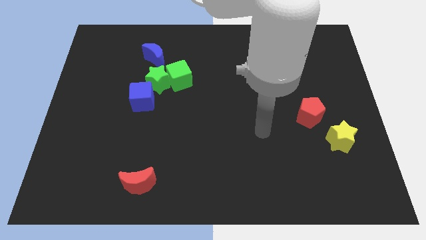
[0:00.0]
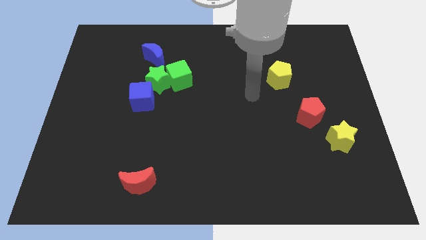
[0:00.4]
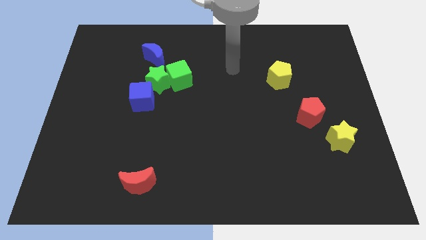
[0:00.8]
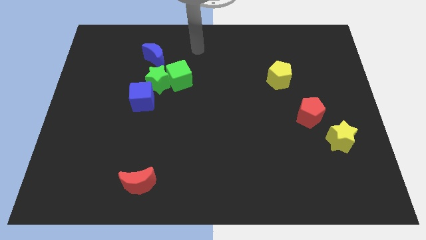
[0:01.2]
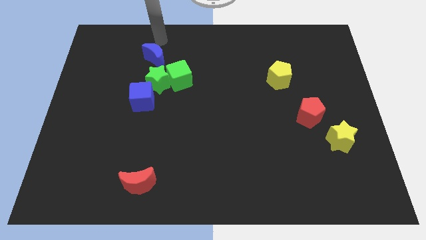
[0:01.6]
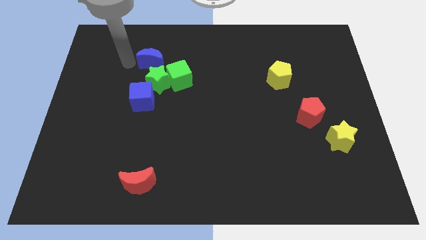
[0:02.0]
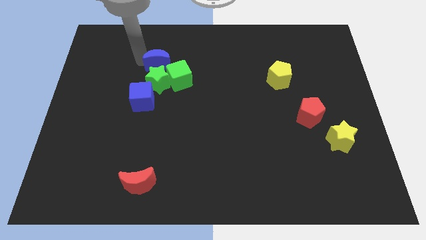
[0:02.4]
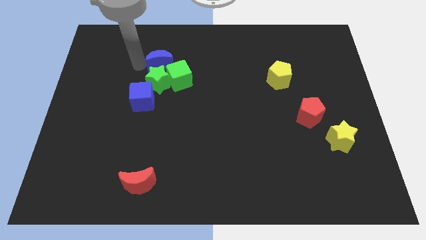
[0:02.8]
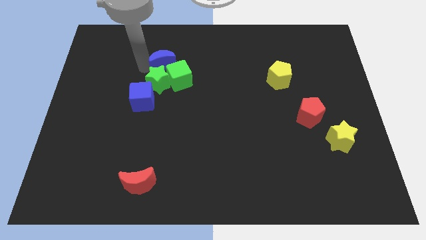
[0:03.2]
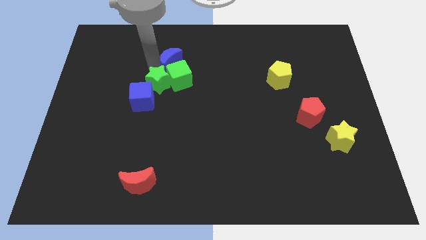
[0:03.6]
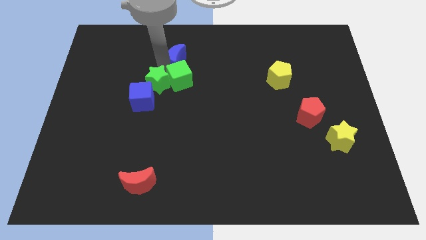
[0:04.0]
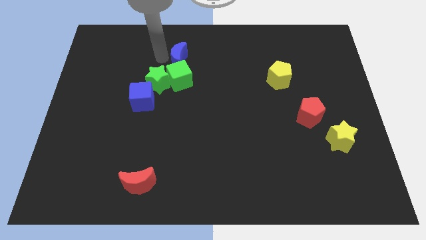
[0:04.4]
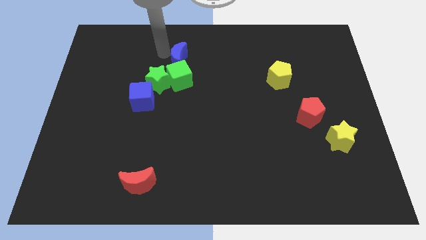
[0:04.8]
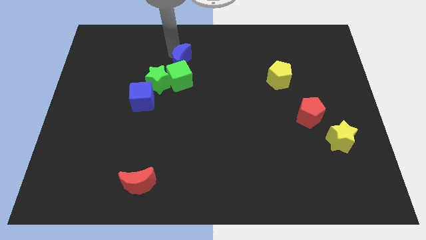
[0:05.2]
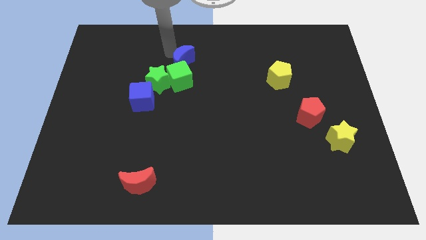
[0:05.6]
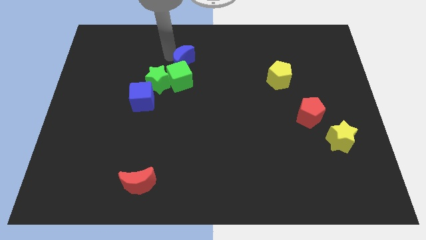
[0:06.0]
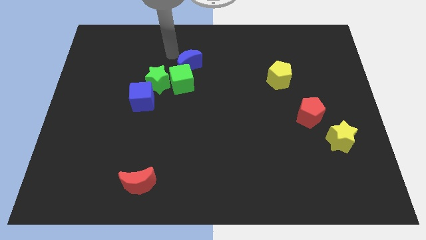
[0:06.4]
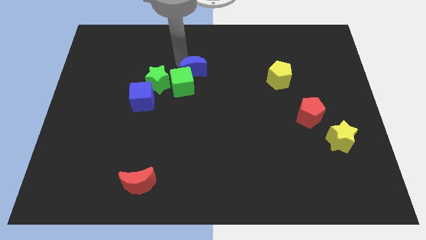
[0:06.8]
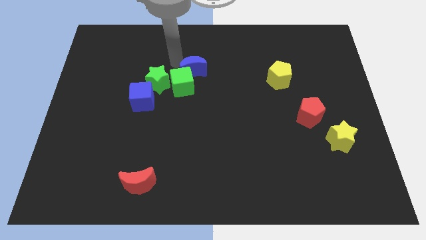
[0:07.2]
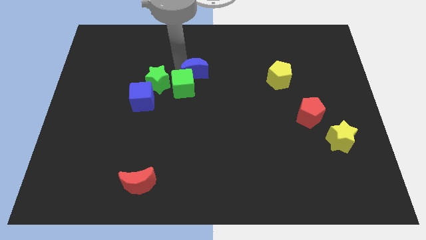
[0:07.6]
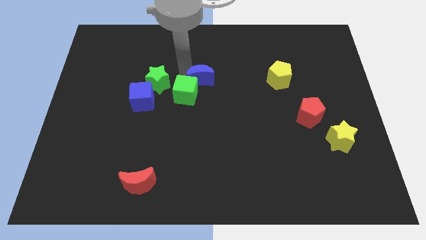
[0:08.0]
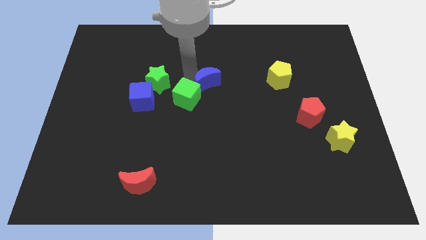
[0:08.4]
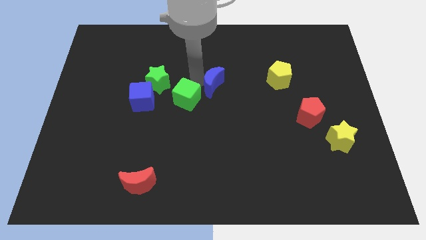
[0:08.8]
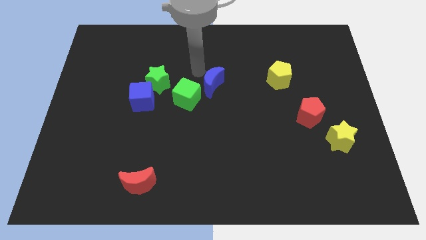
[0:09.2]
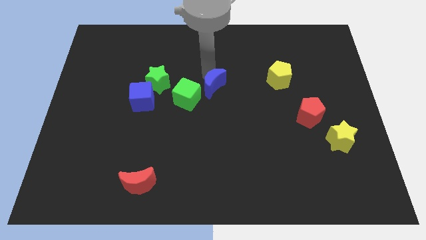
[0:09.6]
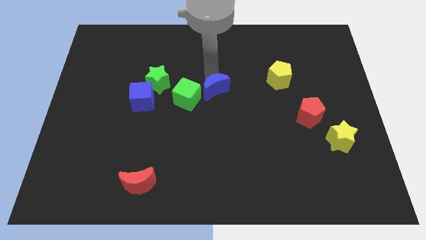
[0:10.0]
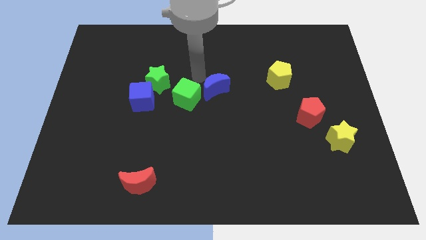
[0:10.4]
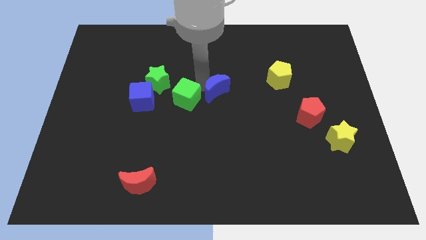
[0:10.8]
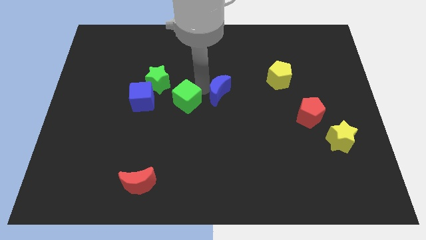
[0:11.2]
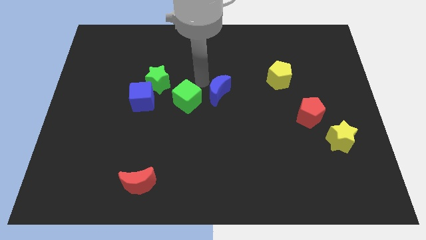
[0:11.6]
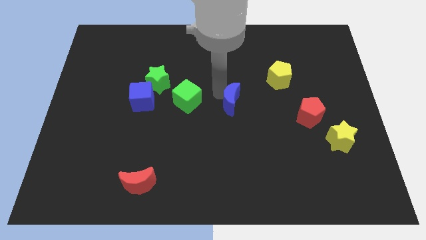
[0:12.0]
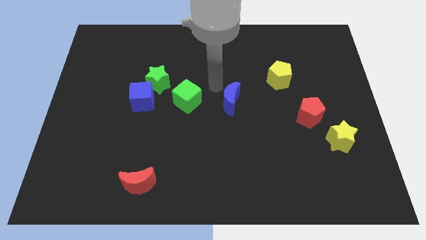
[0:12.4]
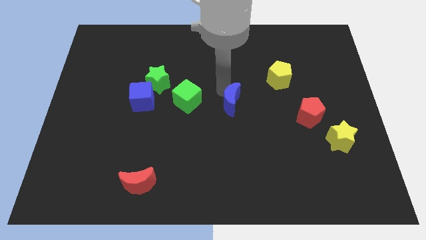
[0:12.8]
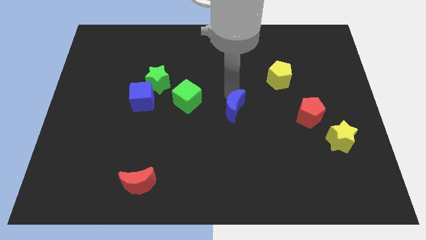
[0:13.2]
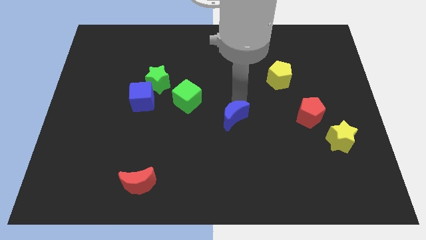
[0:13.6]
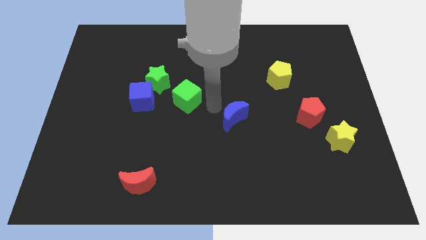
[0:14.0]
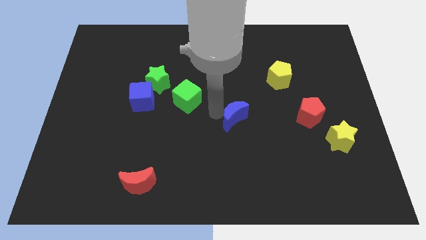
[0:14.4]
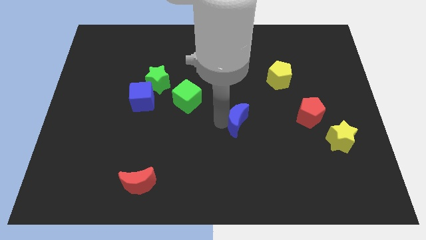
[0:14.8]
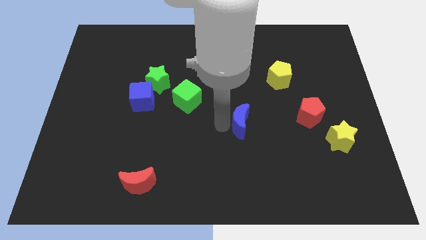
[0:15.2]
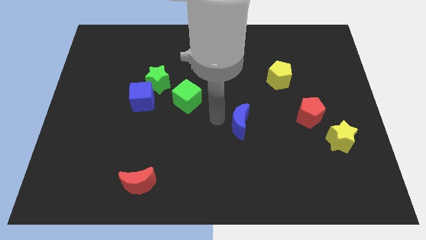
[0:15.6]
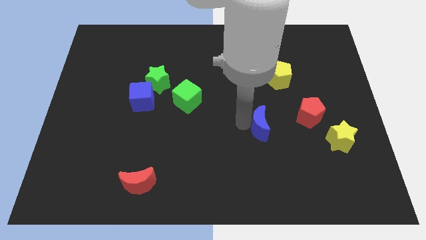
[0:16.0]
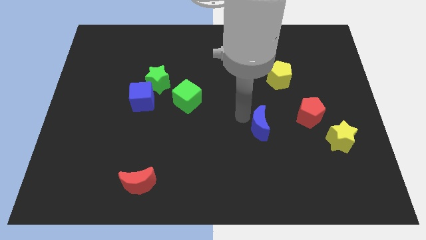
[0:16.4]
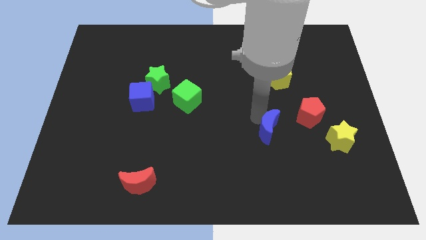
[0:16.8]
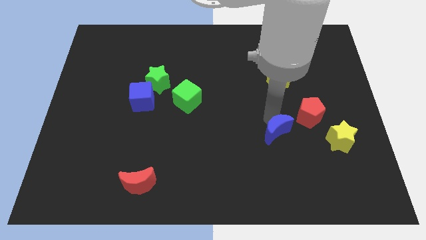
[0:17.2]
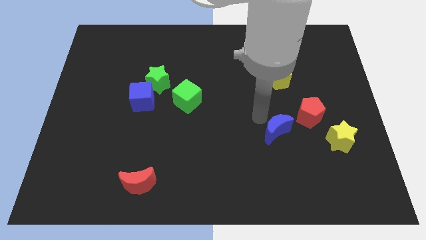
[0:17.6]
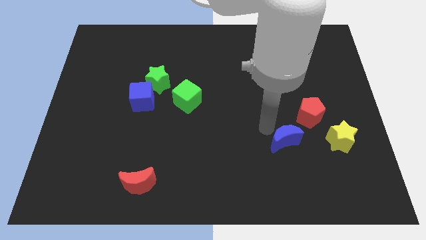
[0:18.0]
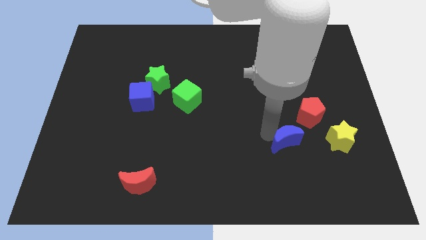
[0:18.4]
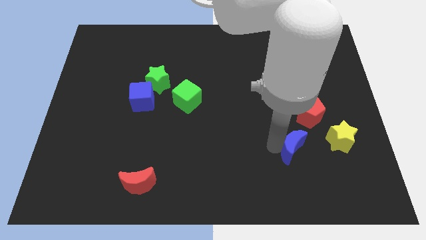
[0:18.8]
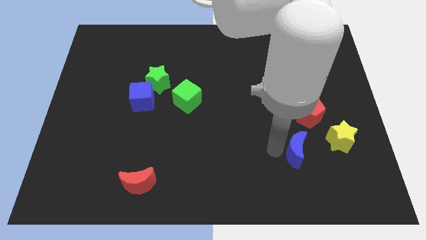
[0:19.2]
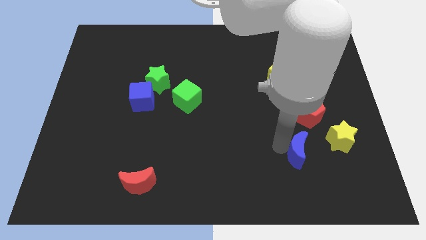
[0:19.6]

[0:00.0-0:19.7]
put the blue moon to the bottom left of the yellow star

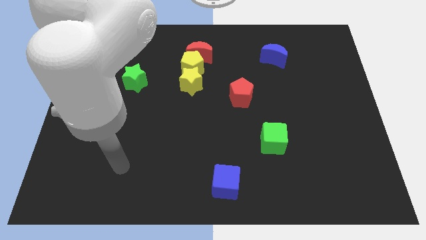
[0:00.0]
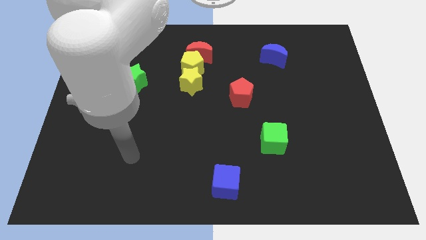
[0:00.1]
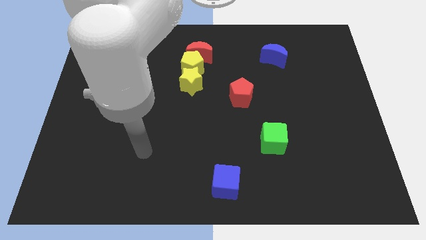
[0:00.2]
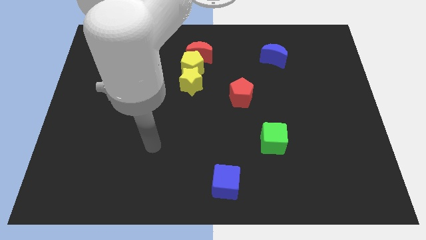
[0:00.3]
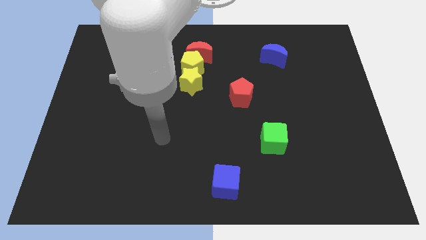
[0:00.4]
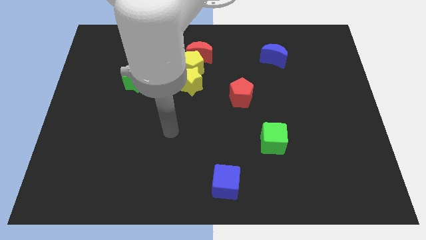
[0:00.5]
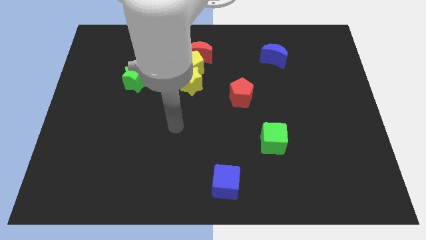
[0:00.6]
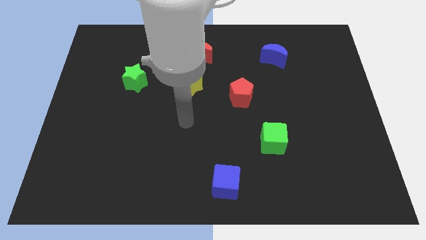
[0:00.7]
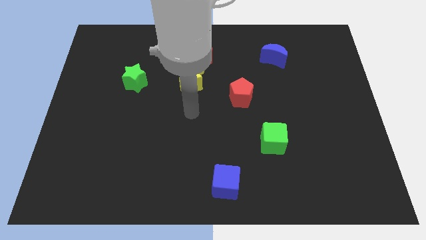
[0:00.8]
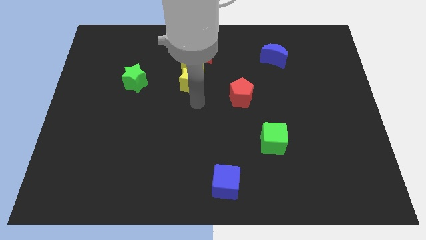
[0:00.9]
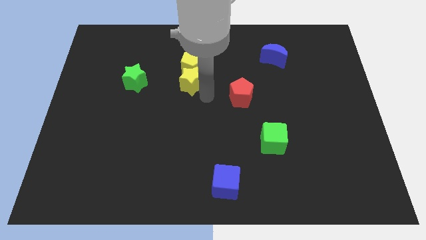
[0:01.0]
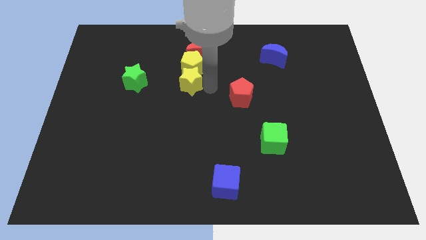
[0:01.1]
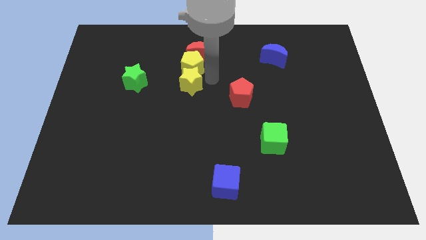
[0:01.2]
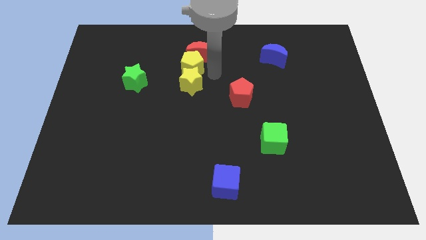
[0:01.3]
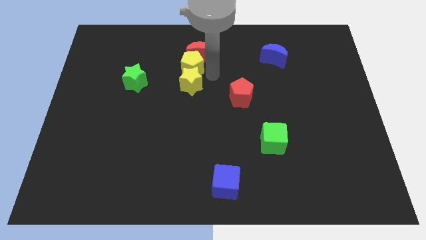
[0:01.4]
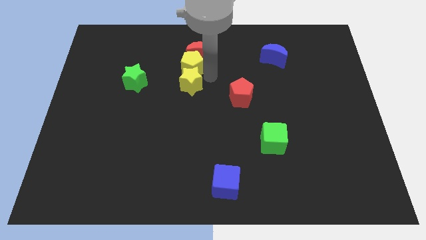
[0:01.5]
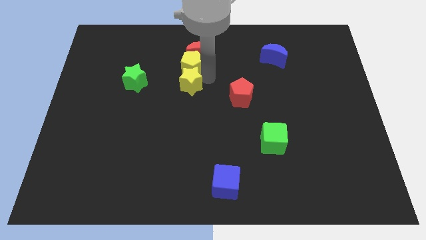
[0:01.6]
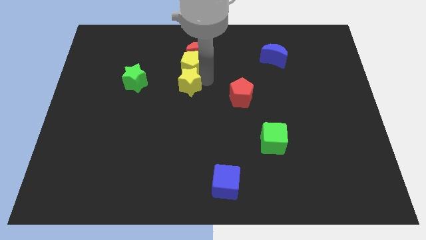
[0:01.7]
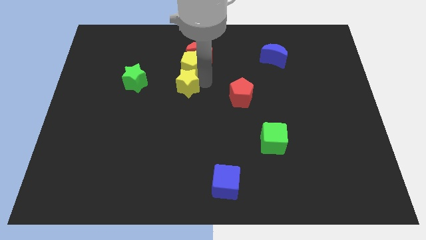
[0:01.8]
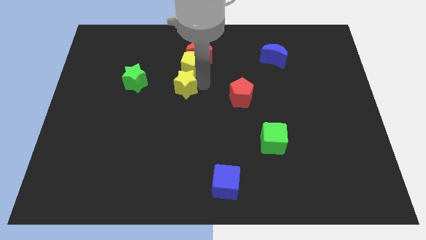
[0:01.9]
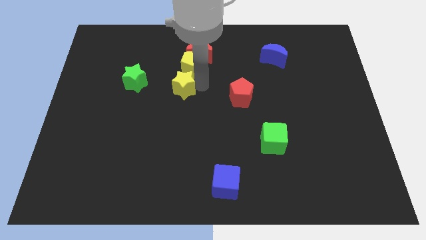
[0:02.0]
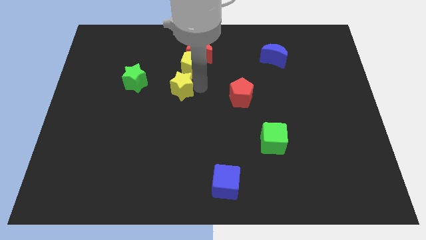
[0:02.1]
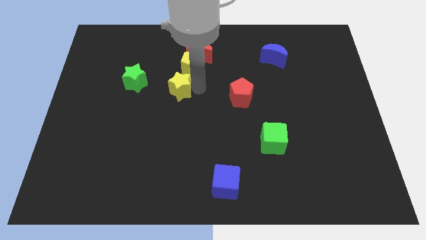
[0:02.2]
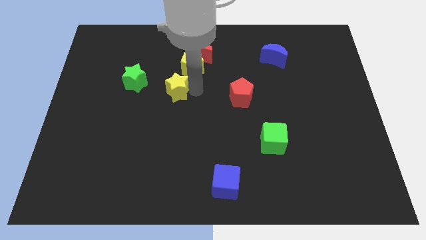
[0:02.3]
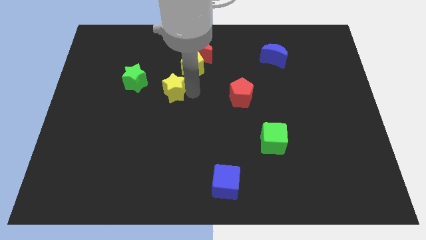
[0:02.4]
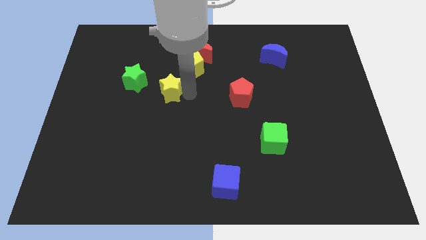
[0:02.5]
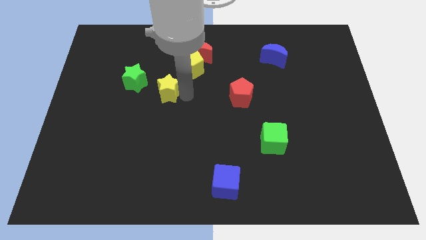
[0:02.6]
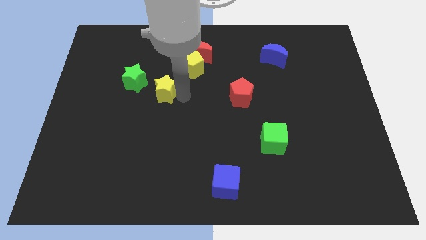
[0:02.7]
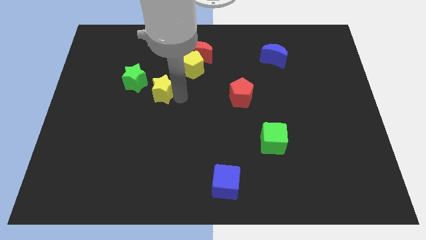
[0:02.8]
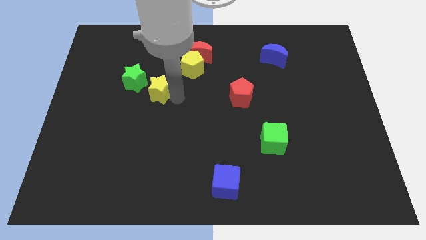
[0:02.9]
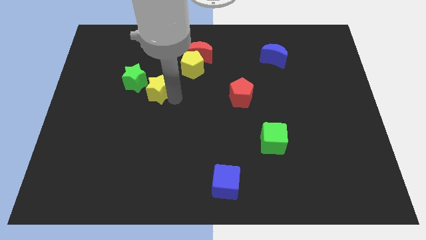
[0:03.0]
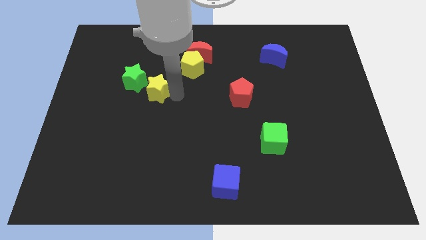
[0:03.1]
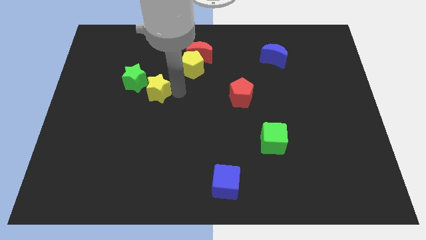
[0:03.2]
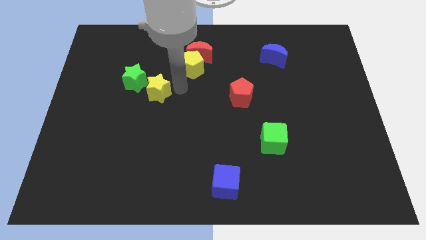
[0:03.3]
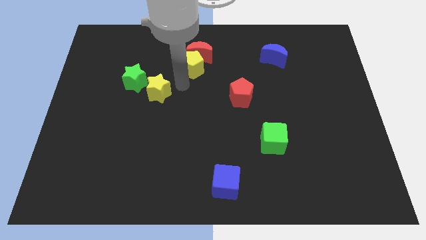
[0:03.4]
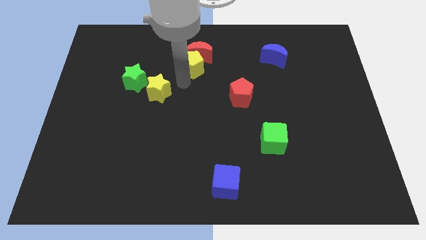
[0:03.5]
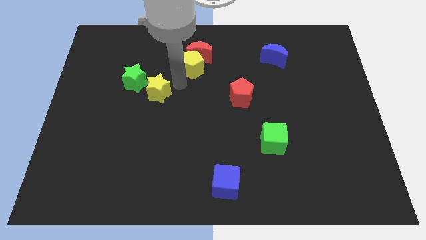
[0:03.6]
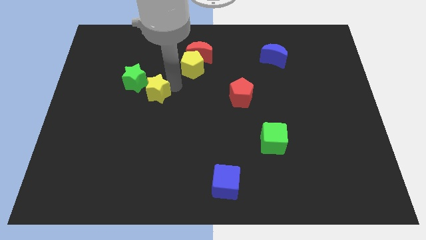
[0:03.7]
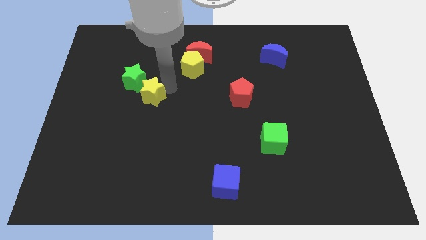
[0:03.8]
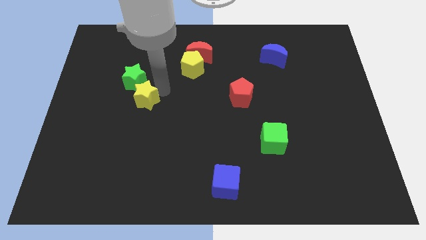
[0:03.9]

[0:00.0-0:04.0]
move the yellow star below the green star
